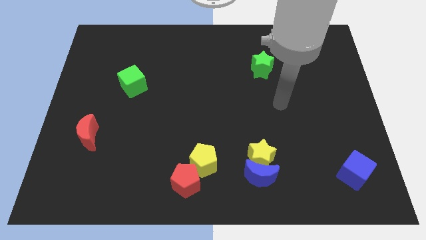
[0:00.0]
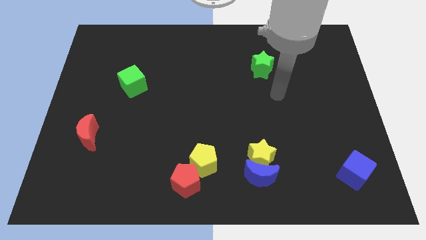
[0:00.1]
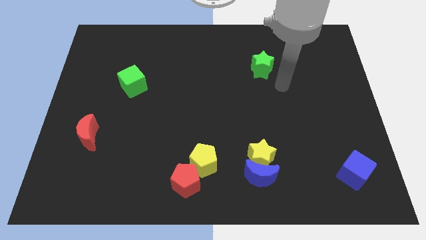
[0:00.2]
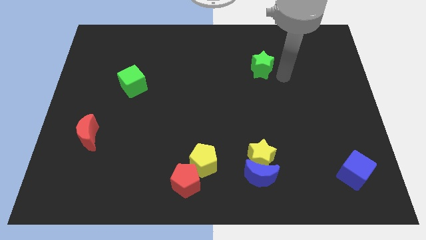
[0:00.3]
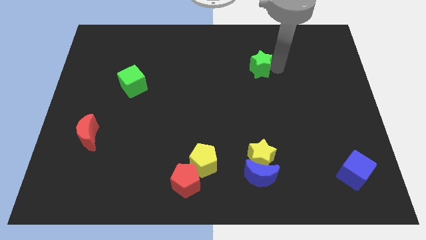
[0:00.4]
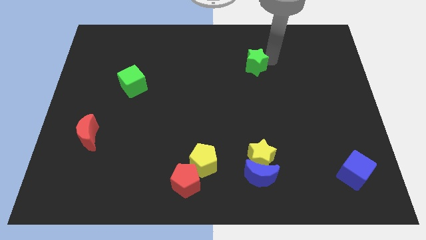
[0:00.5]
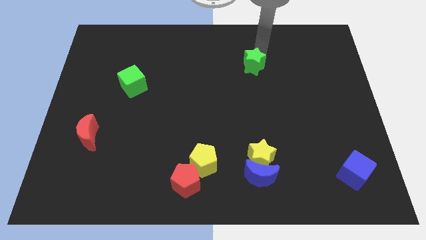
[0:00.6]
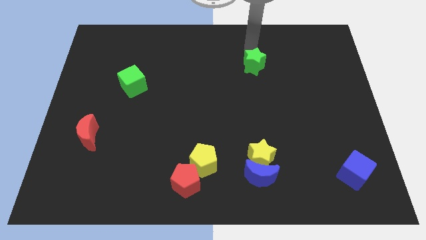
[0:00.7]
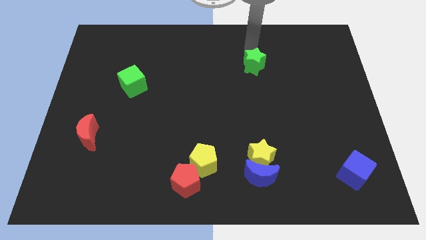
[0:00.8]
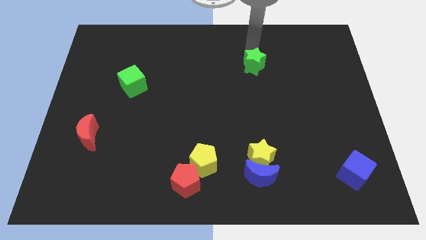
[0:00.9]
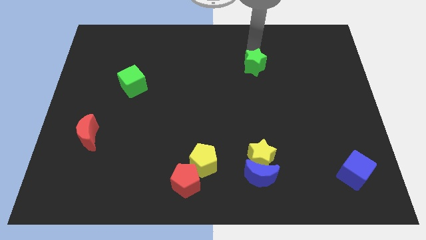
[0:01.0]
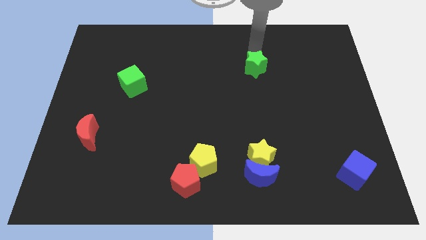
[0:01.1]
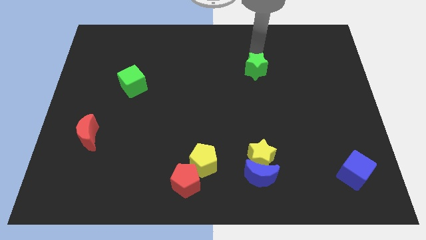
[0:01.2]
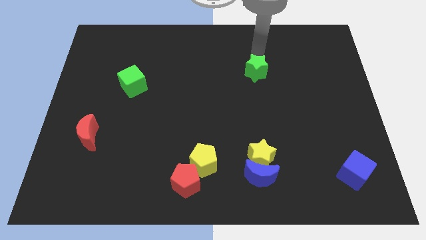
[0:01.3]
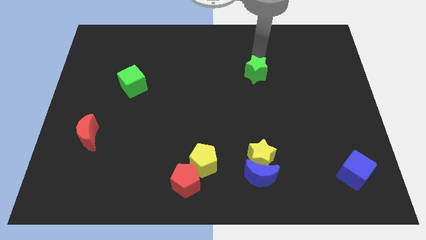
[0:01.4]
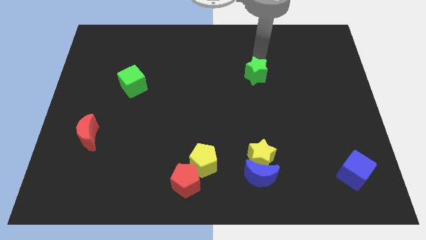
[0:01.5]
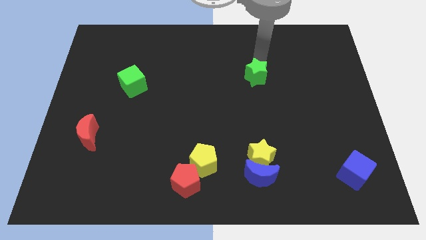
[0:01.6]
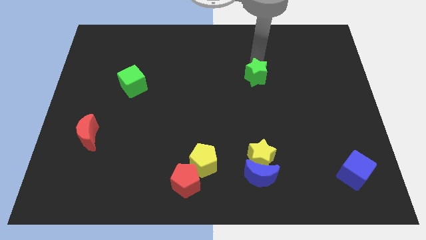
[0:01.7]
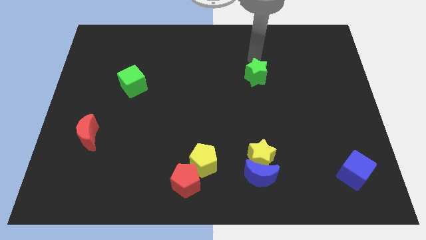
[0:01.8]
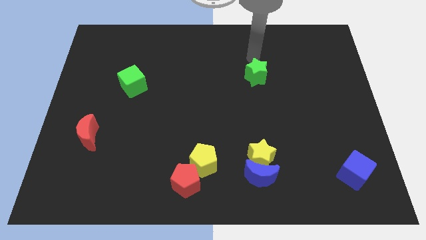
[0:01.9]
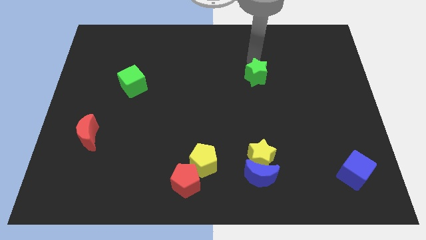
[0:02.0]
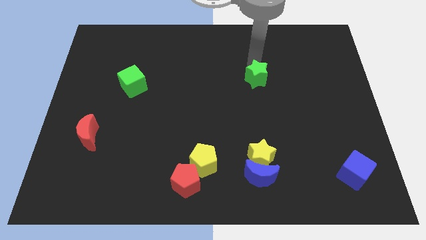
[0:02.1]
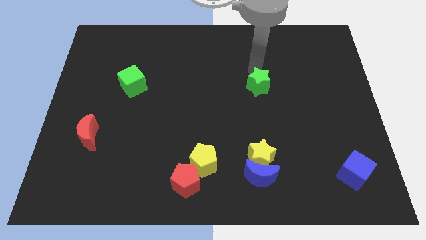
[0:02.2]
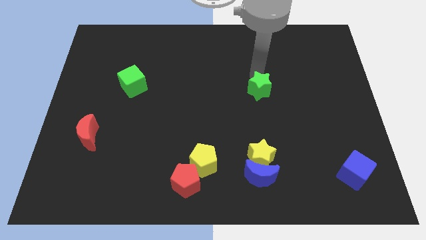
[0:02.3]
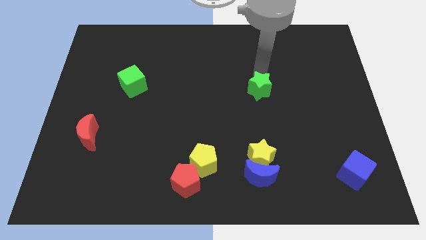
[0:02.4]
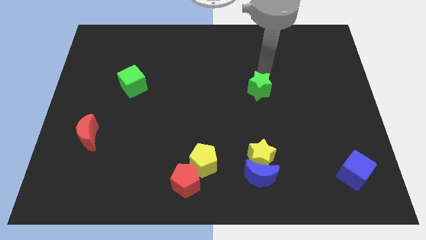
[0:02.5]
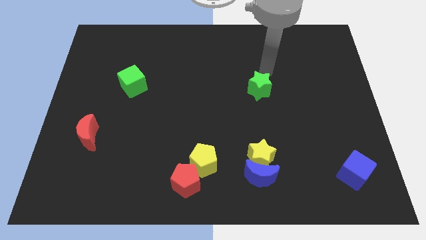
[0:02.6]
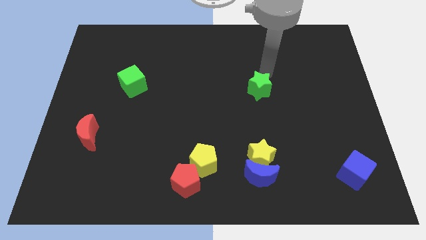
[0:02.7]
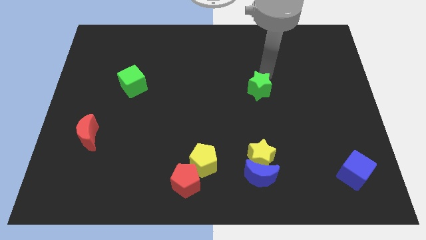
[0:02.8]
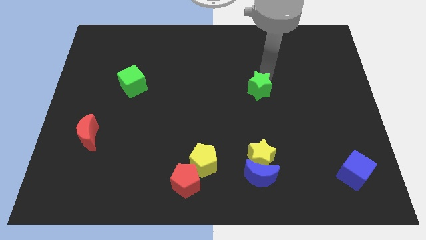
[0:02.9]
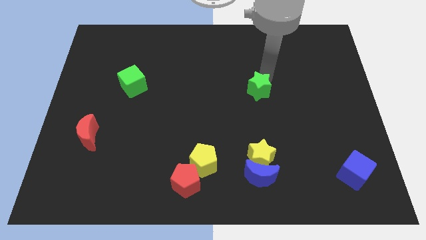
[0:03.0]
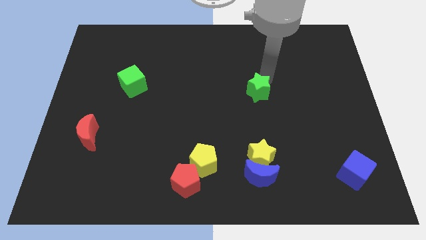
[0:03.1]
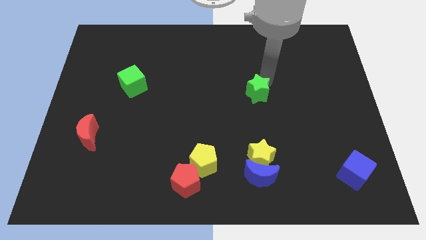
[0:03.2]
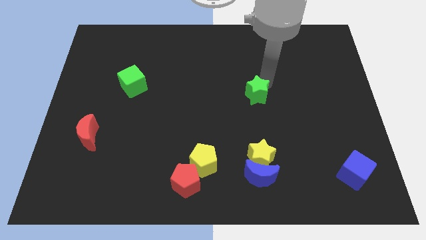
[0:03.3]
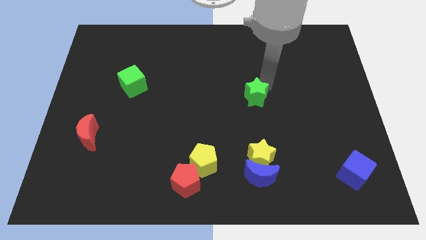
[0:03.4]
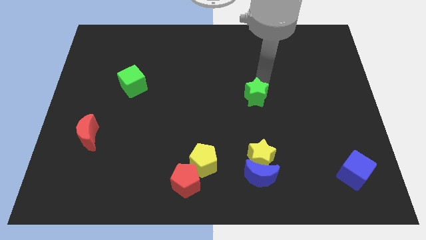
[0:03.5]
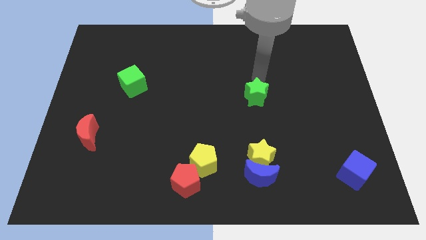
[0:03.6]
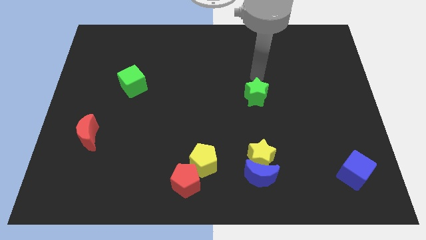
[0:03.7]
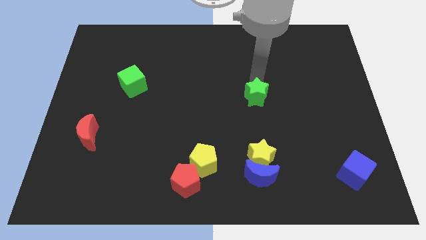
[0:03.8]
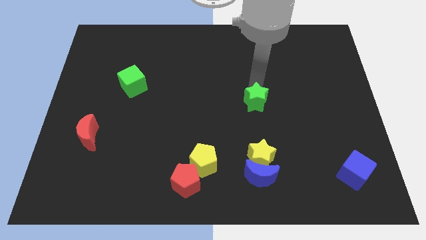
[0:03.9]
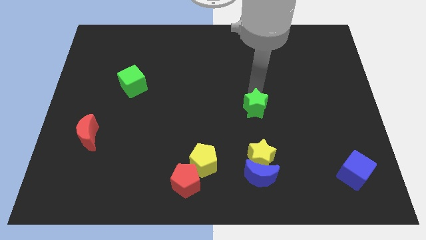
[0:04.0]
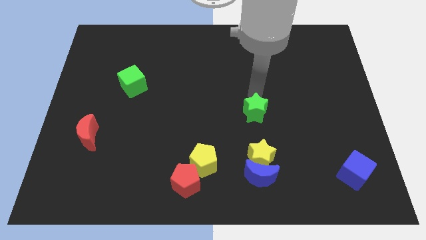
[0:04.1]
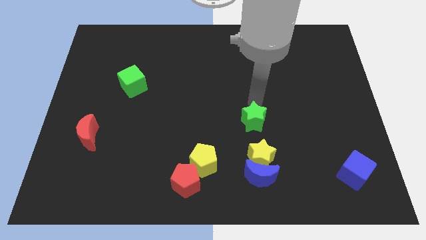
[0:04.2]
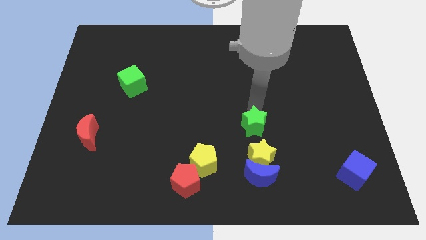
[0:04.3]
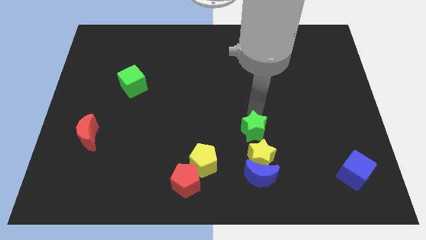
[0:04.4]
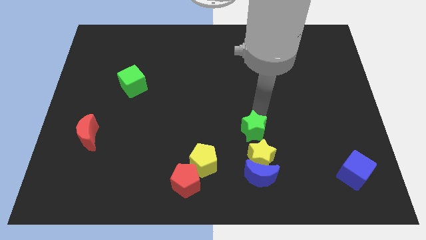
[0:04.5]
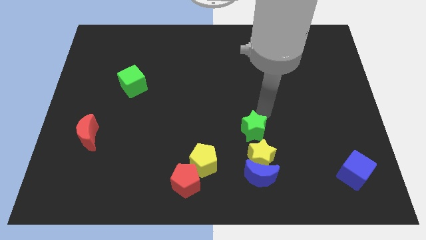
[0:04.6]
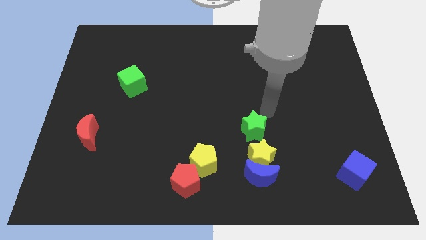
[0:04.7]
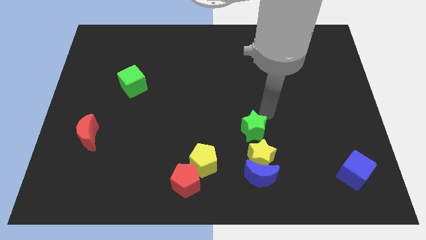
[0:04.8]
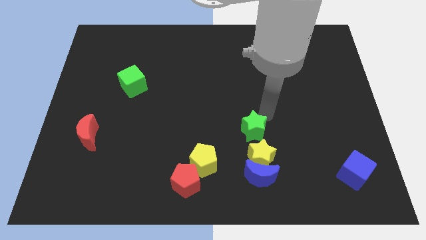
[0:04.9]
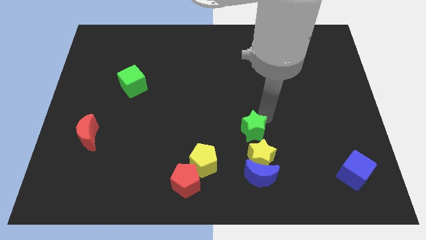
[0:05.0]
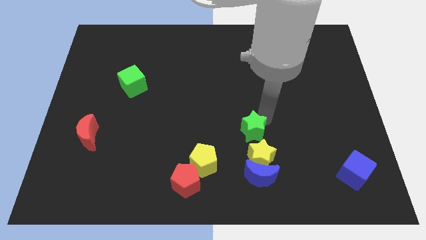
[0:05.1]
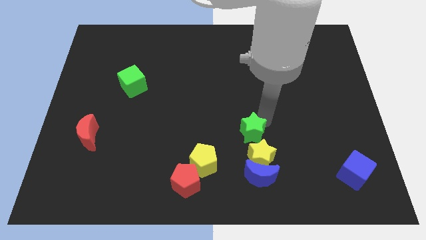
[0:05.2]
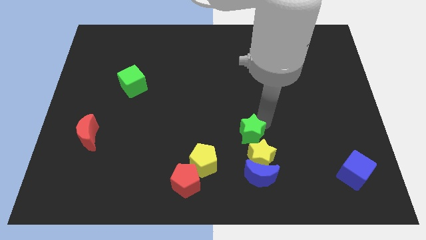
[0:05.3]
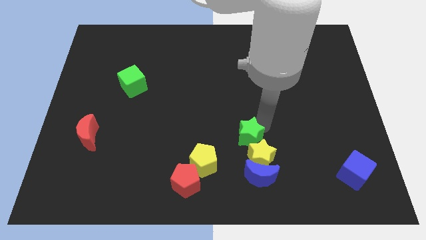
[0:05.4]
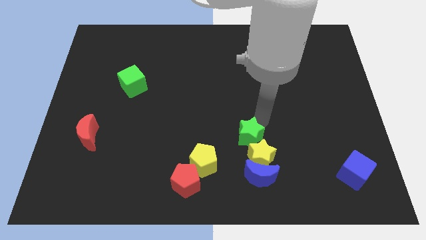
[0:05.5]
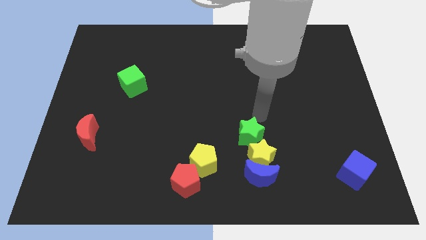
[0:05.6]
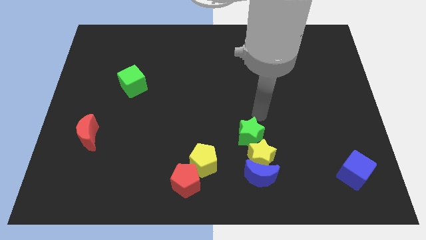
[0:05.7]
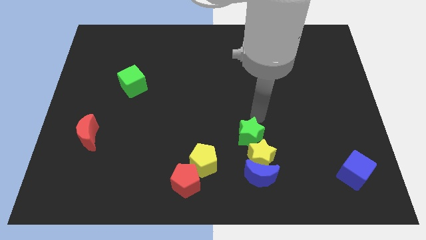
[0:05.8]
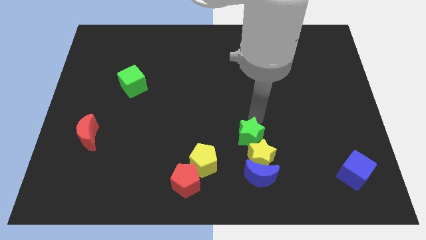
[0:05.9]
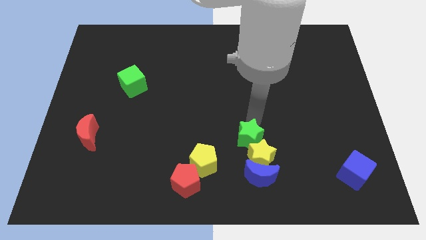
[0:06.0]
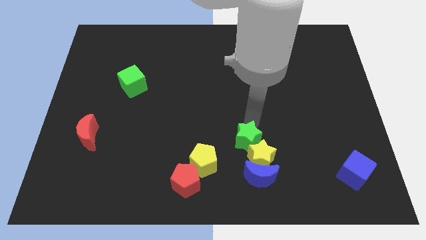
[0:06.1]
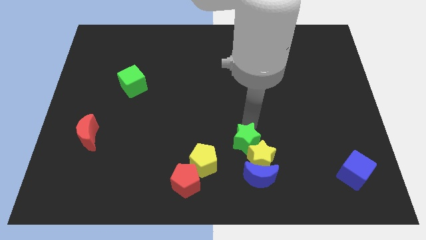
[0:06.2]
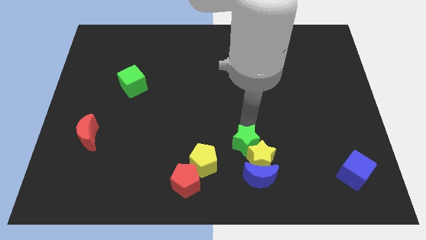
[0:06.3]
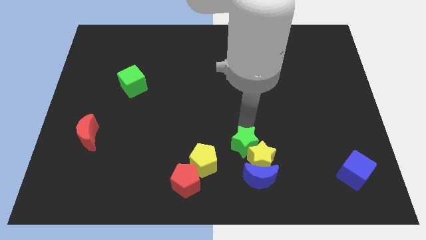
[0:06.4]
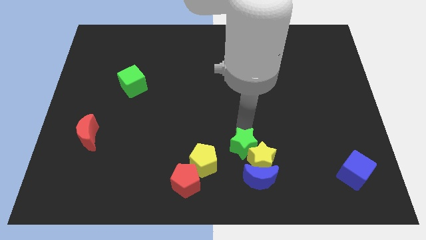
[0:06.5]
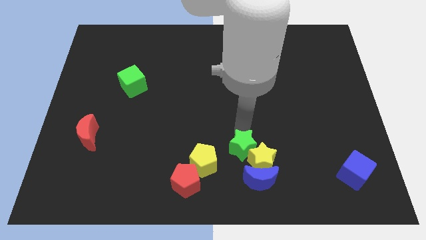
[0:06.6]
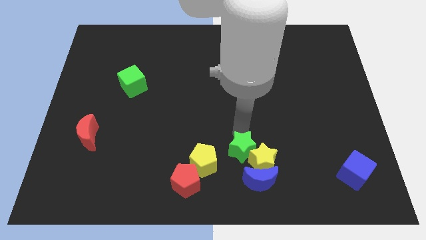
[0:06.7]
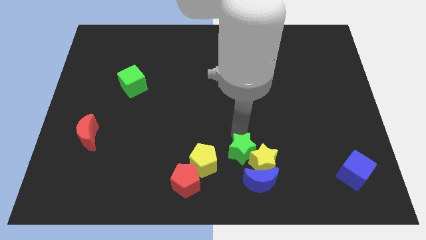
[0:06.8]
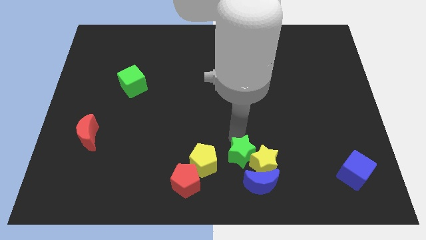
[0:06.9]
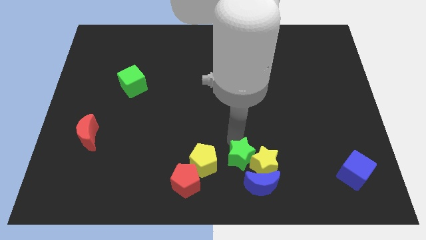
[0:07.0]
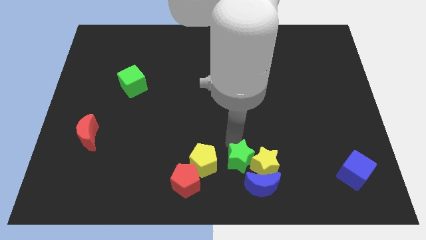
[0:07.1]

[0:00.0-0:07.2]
move the green star to the bottom

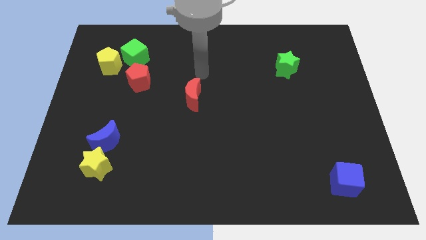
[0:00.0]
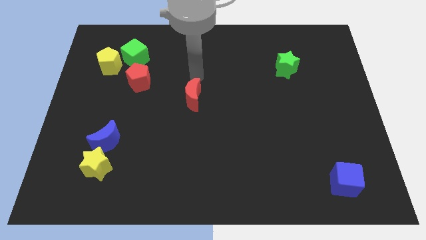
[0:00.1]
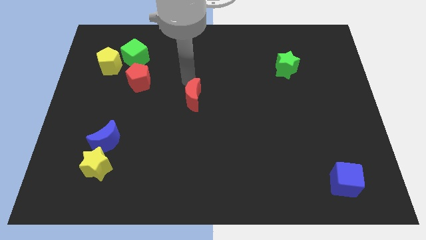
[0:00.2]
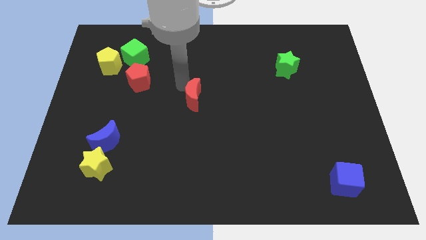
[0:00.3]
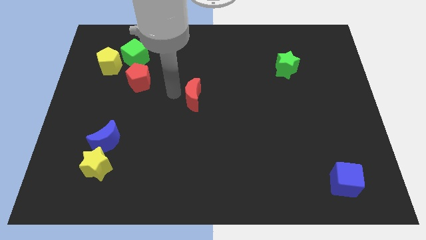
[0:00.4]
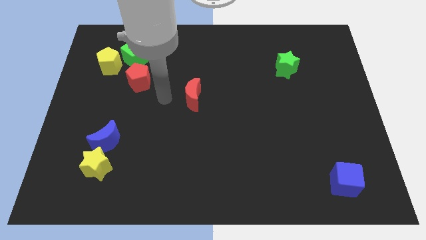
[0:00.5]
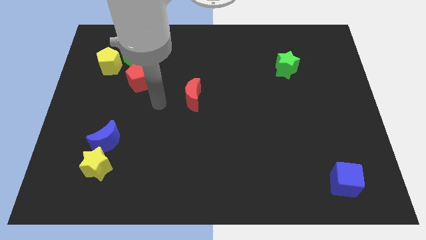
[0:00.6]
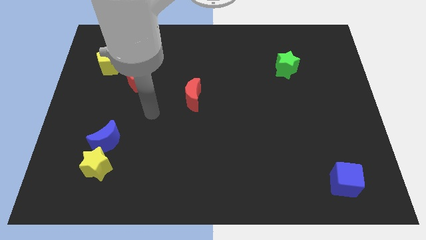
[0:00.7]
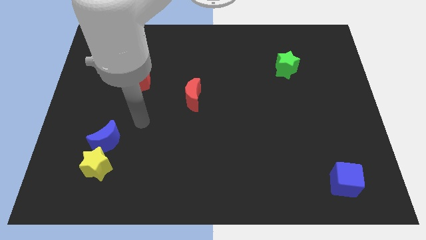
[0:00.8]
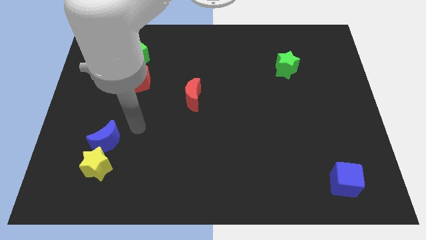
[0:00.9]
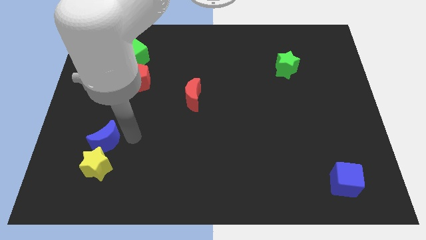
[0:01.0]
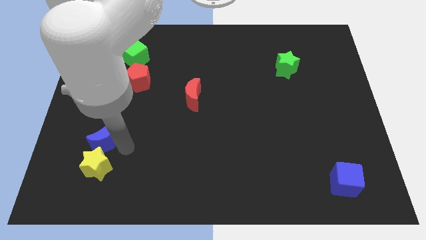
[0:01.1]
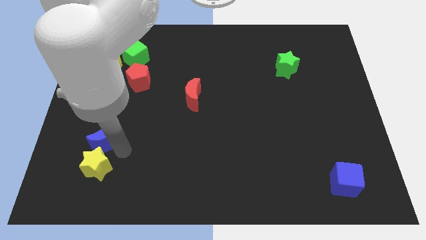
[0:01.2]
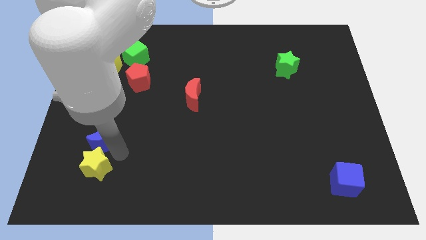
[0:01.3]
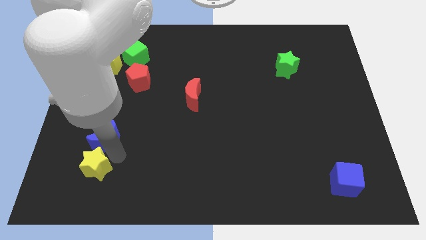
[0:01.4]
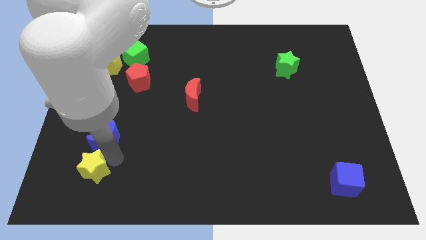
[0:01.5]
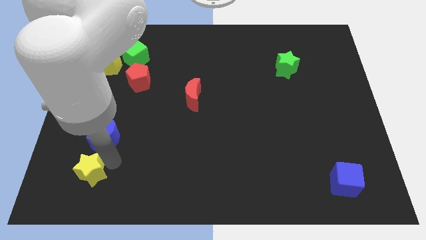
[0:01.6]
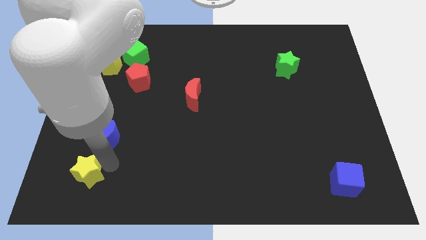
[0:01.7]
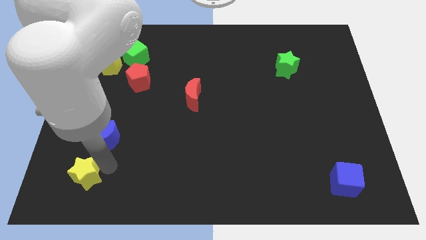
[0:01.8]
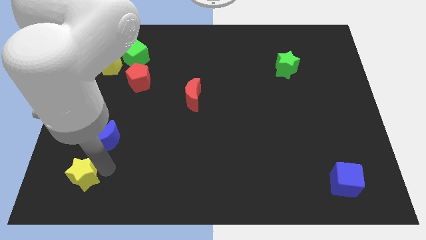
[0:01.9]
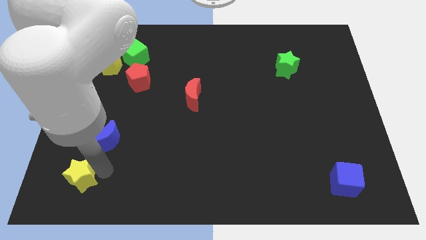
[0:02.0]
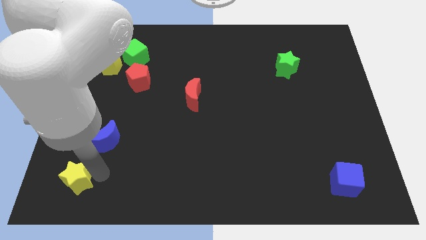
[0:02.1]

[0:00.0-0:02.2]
put the yellow star to the bottom left
